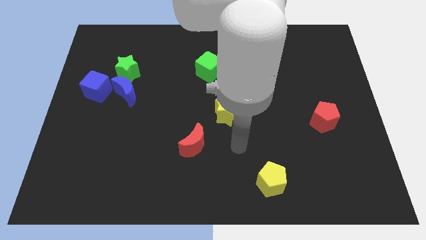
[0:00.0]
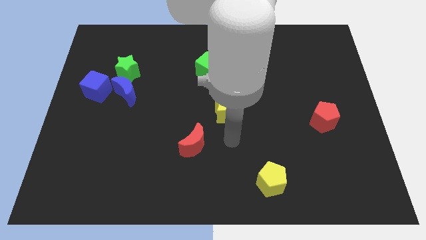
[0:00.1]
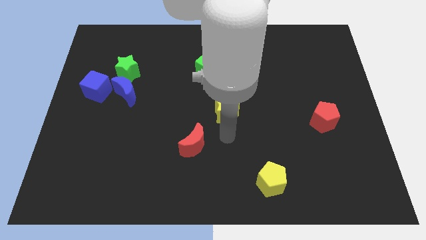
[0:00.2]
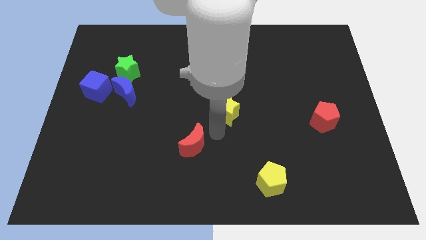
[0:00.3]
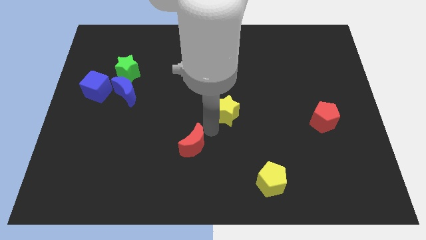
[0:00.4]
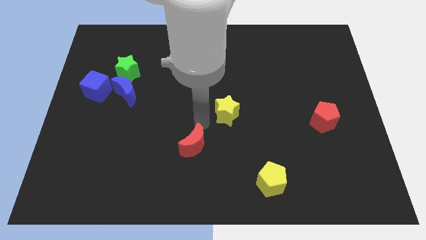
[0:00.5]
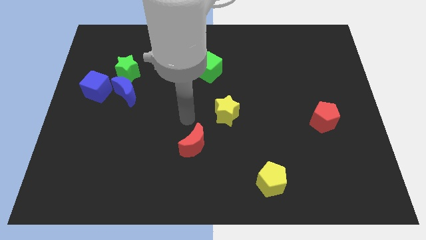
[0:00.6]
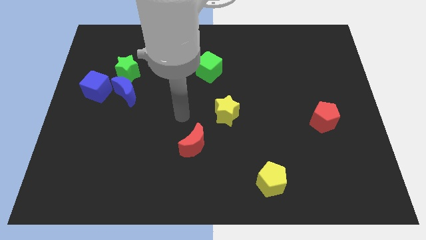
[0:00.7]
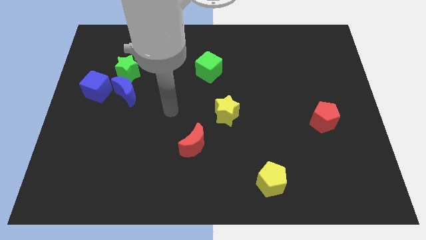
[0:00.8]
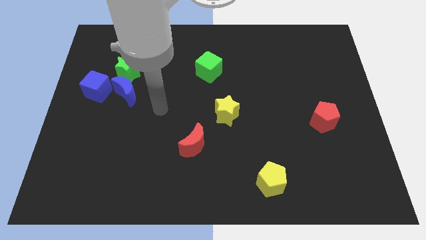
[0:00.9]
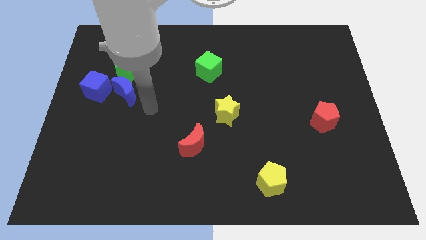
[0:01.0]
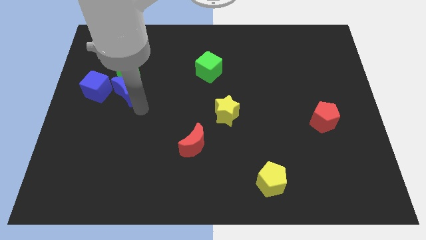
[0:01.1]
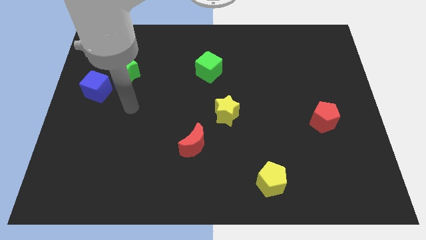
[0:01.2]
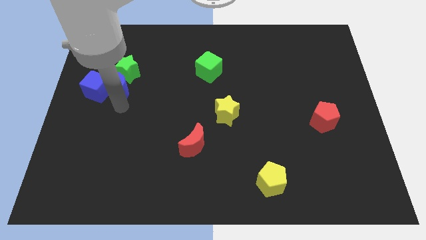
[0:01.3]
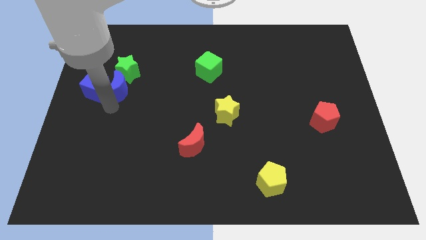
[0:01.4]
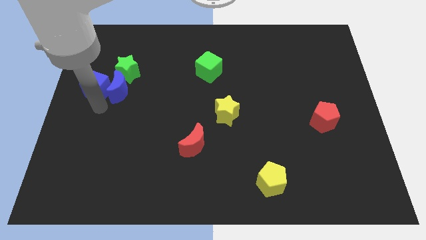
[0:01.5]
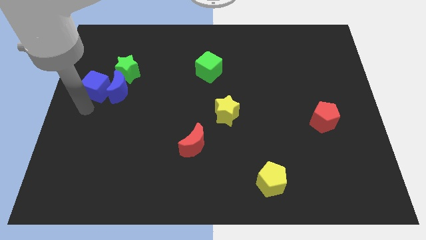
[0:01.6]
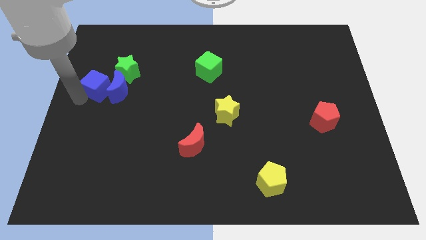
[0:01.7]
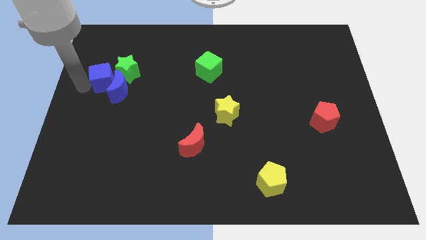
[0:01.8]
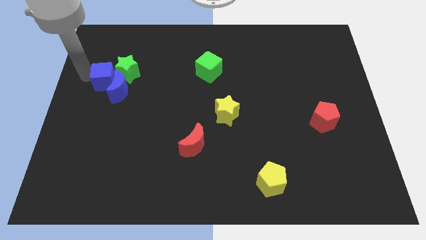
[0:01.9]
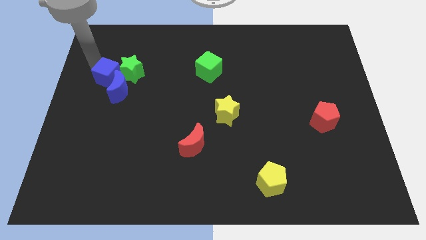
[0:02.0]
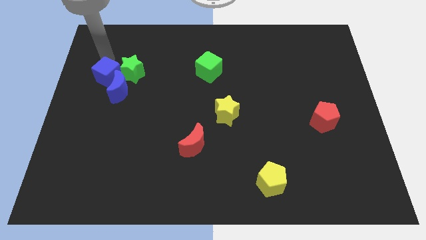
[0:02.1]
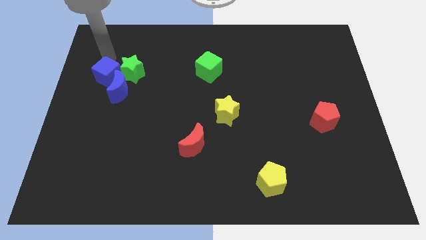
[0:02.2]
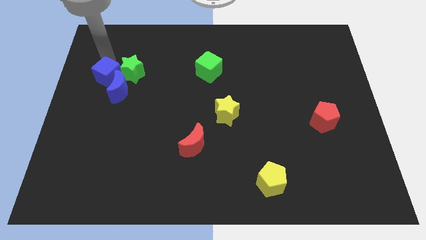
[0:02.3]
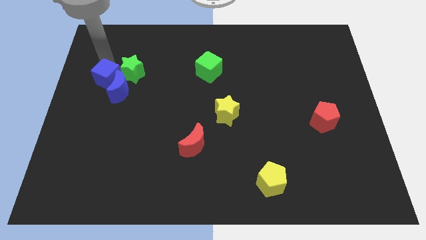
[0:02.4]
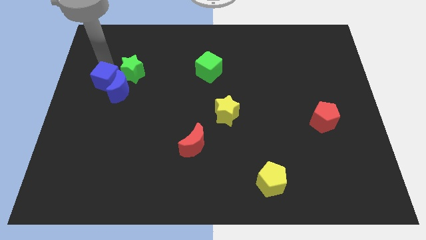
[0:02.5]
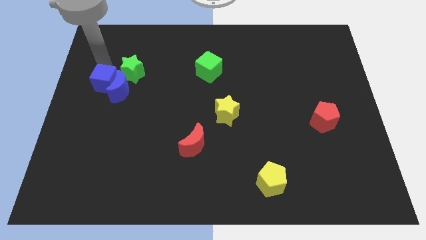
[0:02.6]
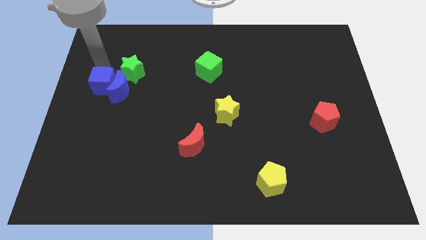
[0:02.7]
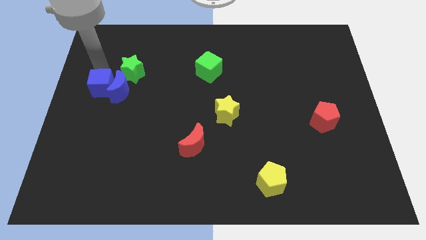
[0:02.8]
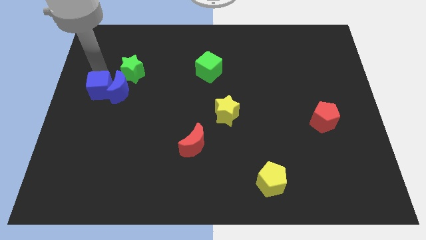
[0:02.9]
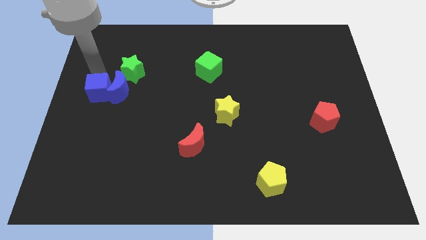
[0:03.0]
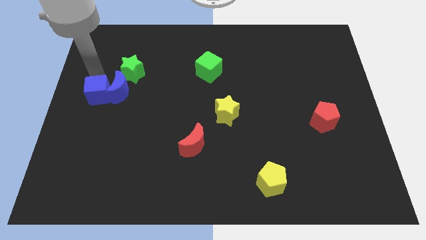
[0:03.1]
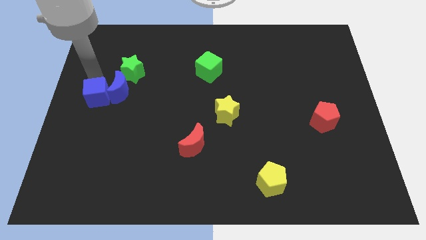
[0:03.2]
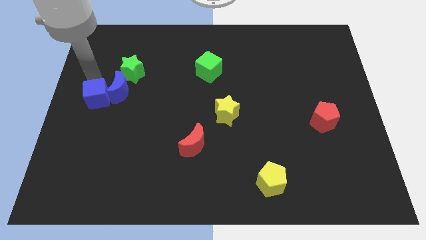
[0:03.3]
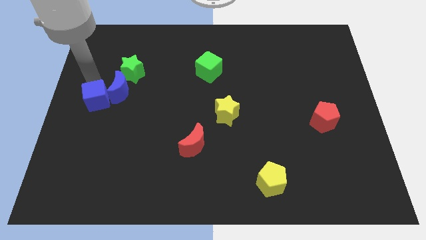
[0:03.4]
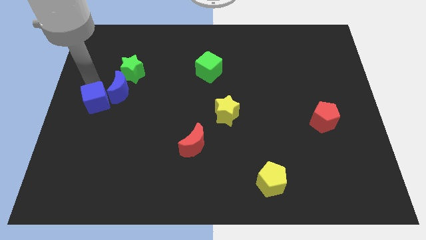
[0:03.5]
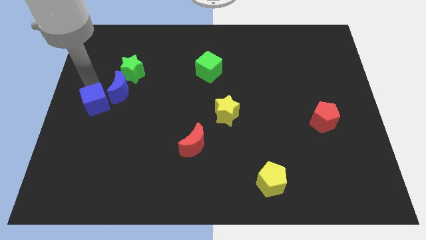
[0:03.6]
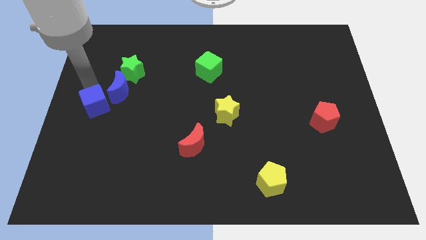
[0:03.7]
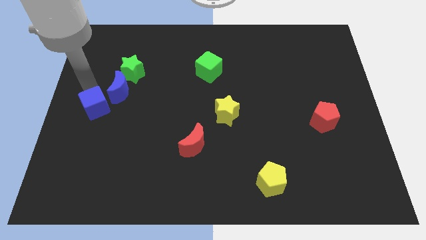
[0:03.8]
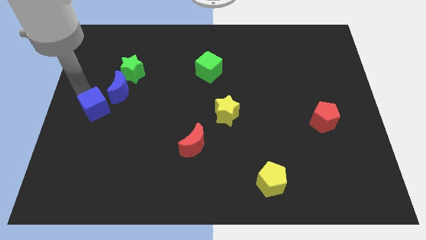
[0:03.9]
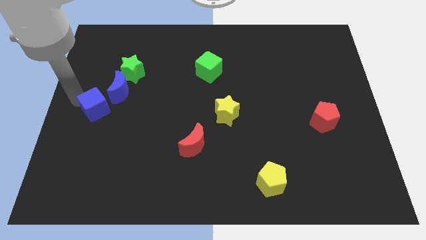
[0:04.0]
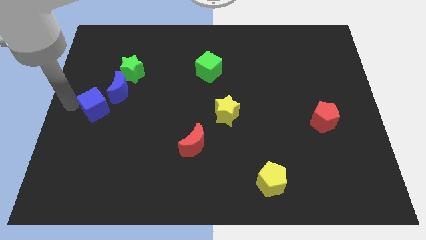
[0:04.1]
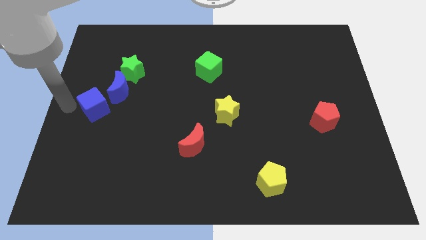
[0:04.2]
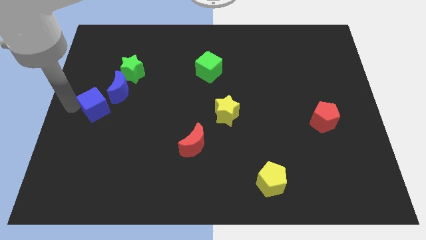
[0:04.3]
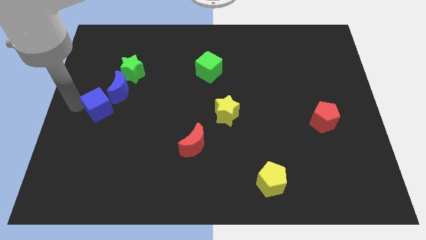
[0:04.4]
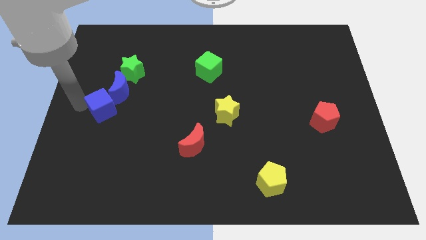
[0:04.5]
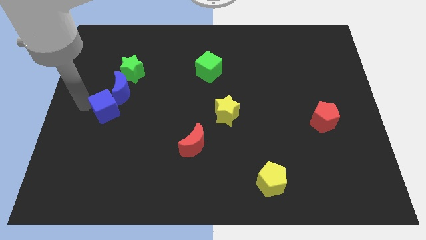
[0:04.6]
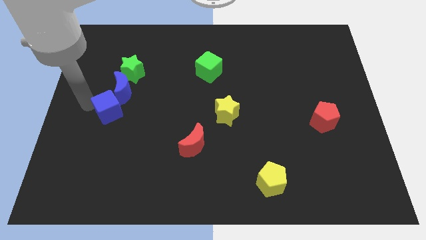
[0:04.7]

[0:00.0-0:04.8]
slightly slide the blue cube downwards and then right

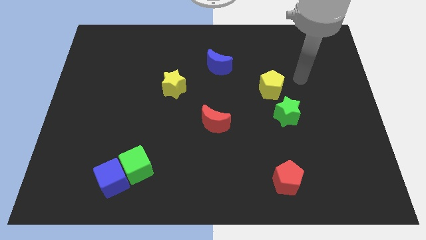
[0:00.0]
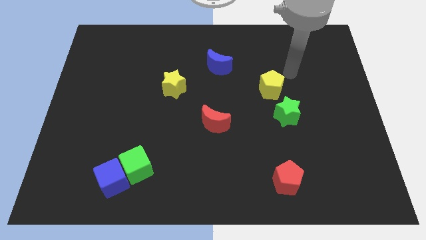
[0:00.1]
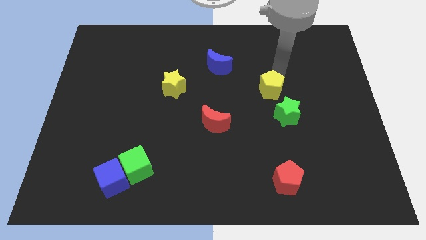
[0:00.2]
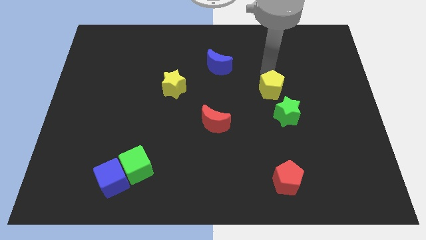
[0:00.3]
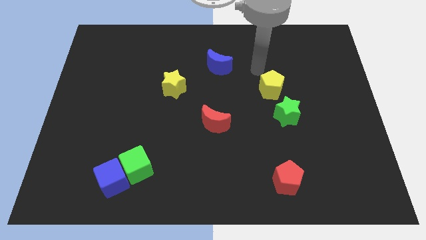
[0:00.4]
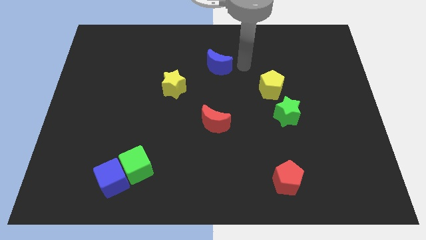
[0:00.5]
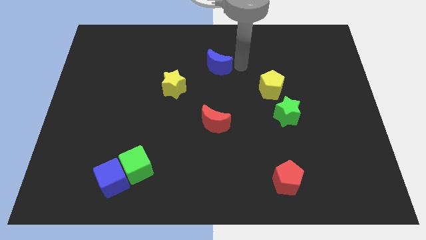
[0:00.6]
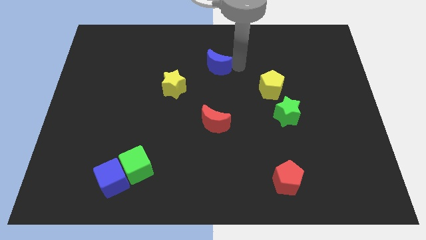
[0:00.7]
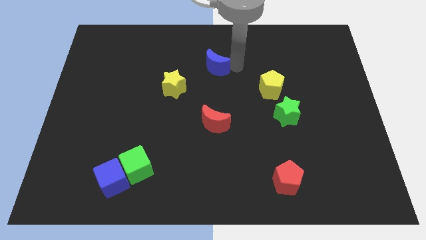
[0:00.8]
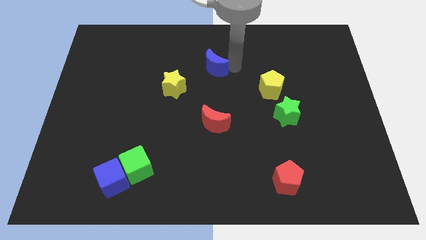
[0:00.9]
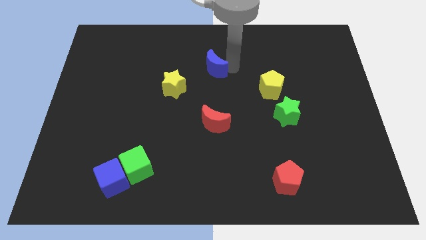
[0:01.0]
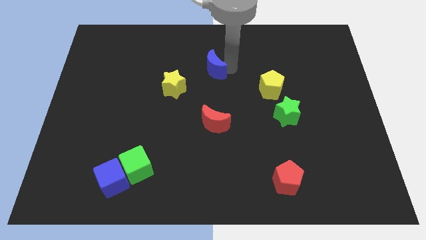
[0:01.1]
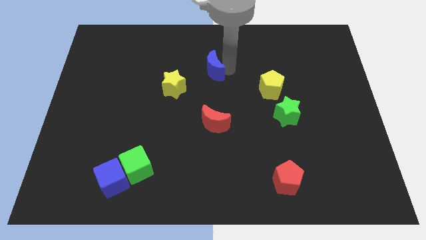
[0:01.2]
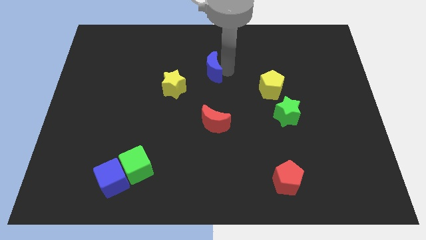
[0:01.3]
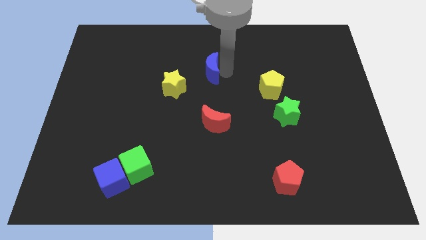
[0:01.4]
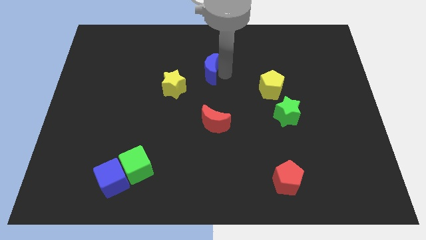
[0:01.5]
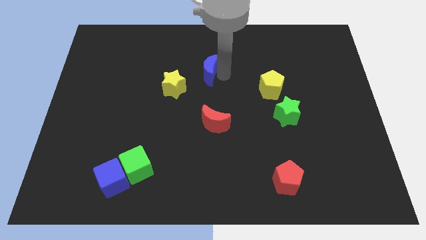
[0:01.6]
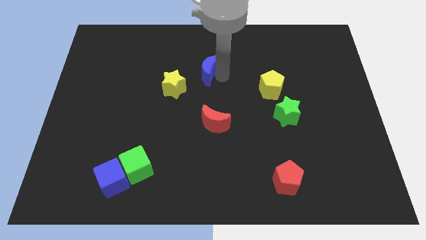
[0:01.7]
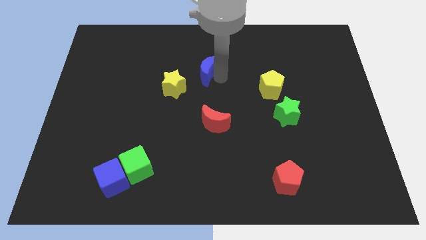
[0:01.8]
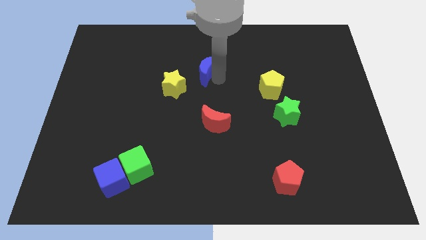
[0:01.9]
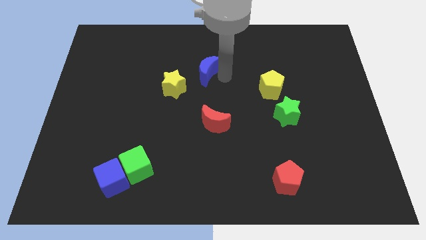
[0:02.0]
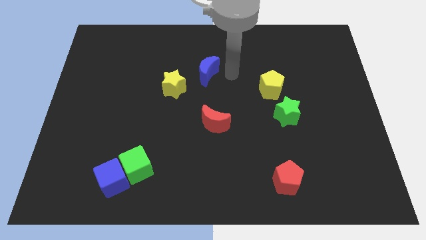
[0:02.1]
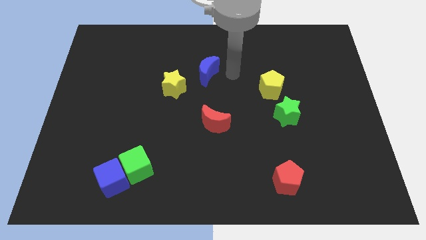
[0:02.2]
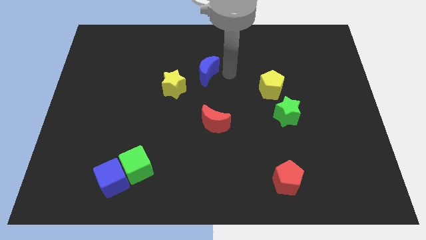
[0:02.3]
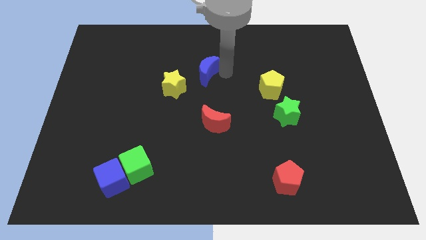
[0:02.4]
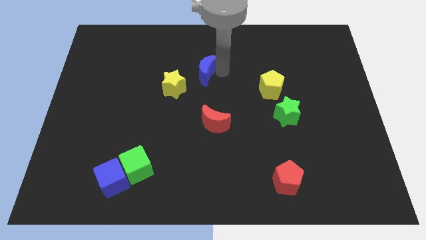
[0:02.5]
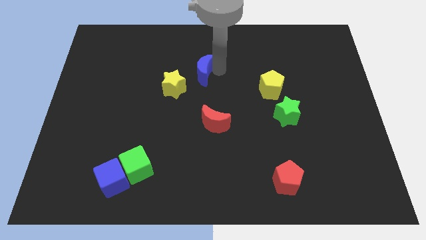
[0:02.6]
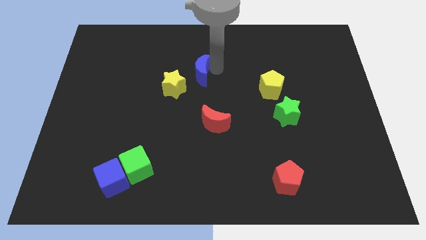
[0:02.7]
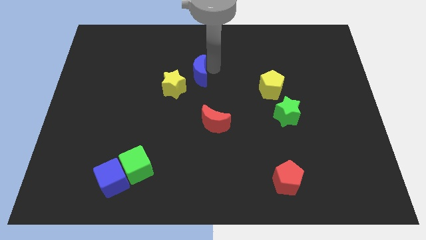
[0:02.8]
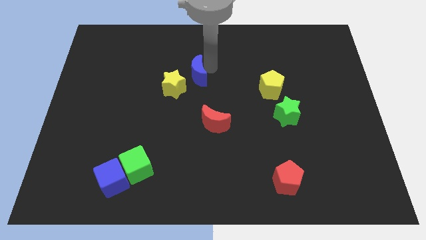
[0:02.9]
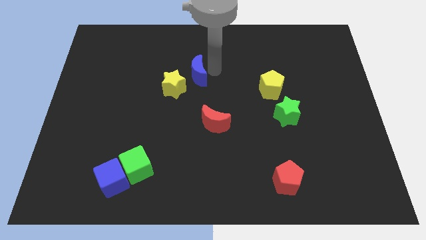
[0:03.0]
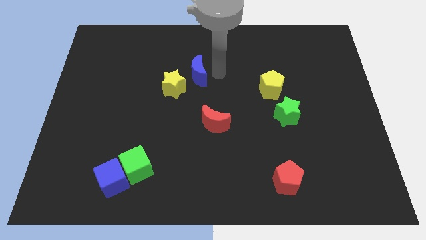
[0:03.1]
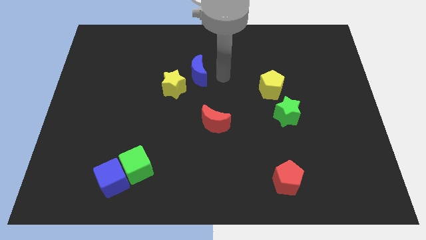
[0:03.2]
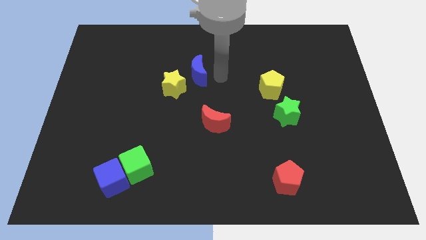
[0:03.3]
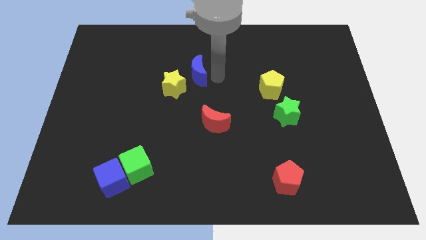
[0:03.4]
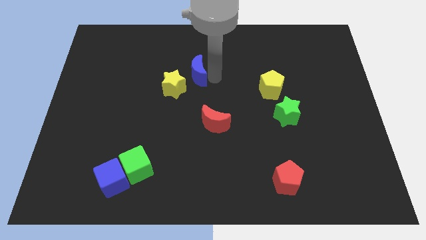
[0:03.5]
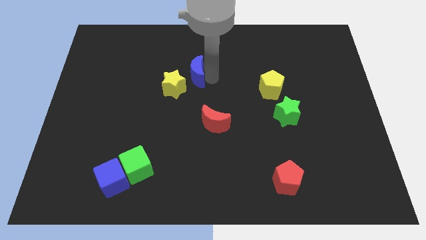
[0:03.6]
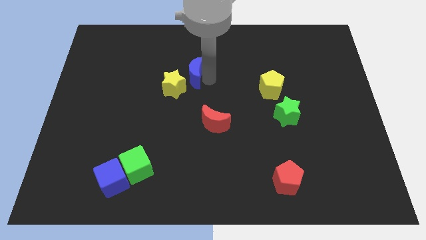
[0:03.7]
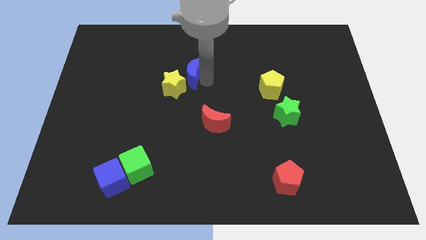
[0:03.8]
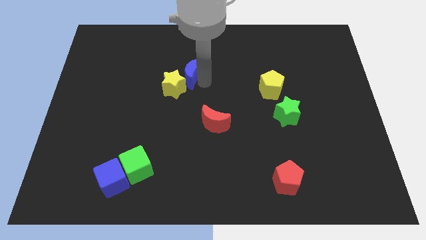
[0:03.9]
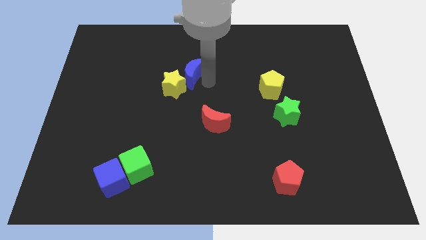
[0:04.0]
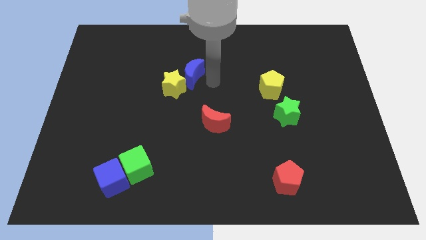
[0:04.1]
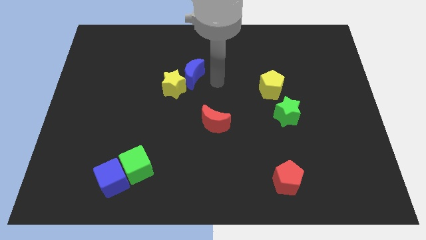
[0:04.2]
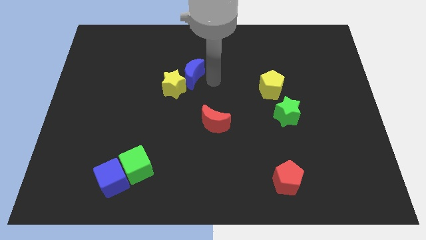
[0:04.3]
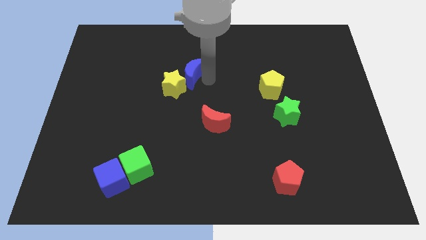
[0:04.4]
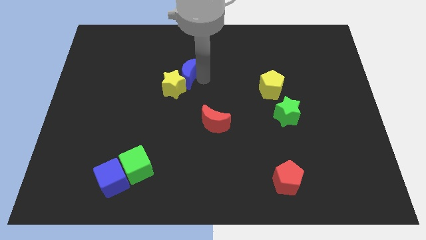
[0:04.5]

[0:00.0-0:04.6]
push the blue moon to the left a bit
